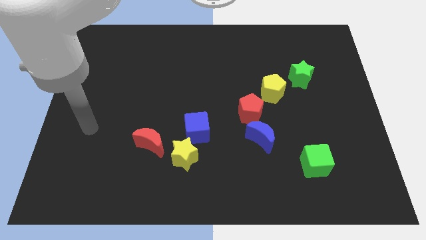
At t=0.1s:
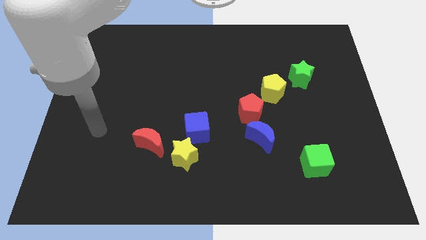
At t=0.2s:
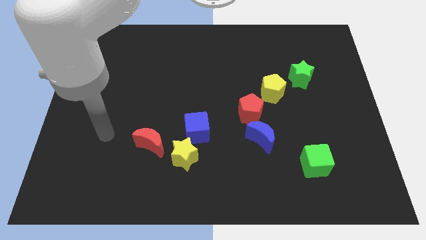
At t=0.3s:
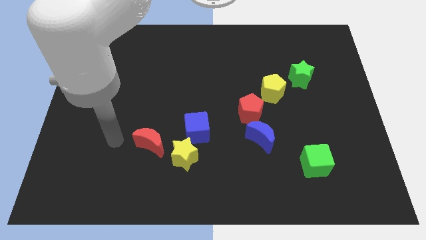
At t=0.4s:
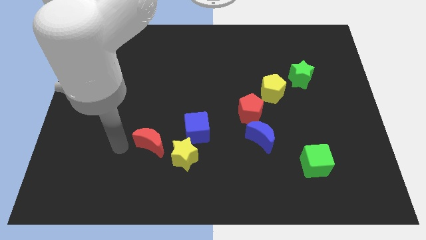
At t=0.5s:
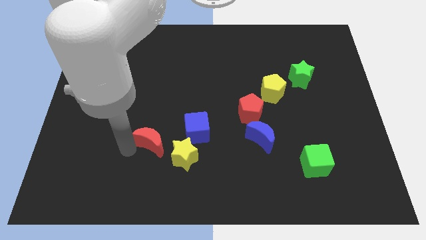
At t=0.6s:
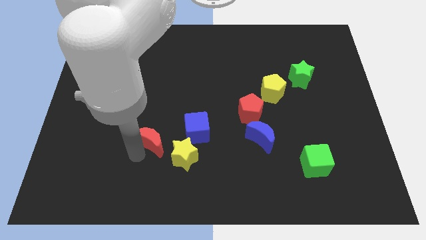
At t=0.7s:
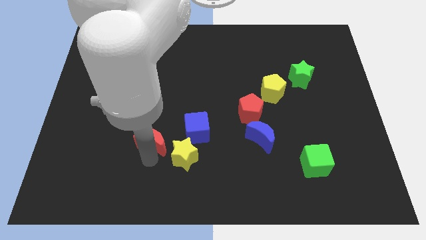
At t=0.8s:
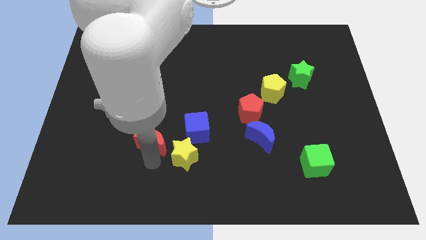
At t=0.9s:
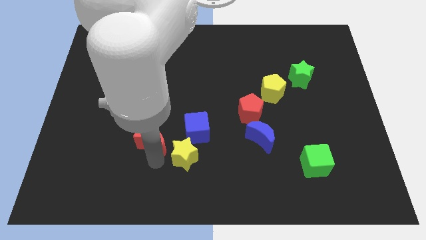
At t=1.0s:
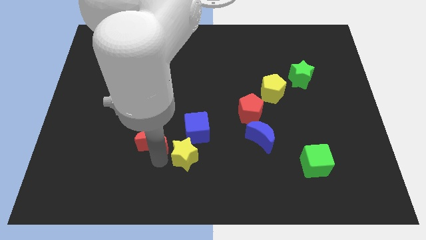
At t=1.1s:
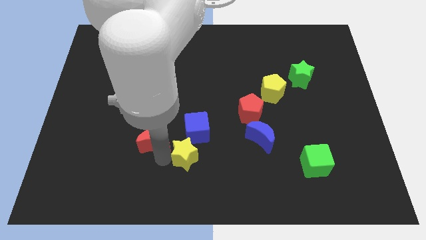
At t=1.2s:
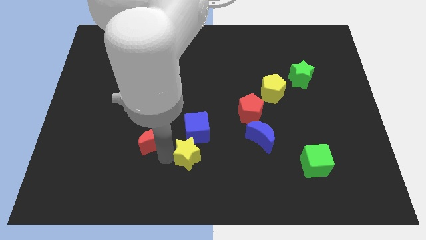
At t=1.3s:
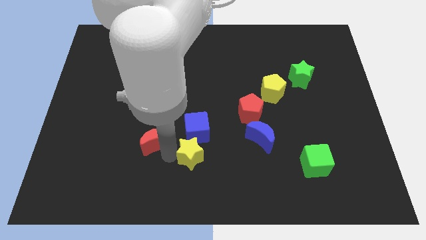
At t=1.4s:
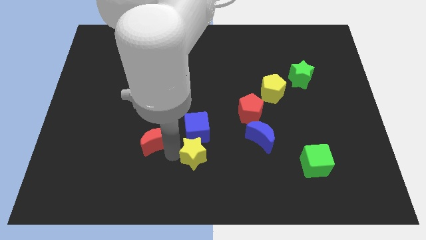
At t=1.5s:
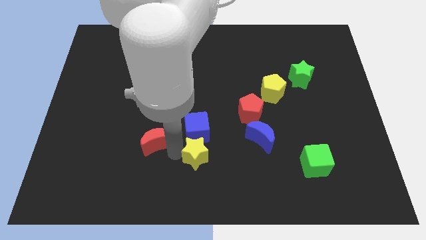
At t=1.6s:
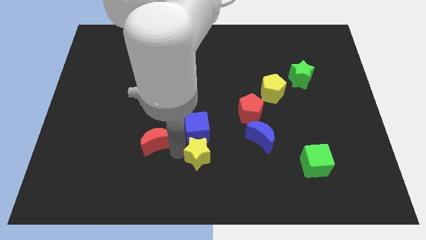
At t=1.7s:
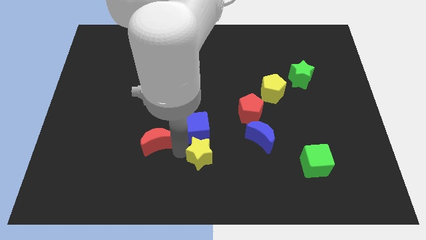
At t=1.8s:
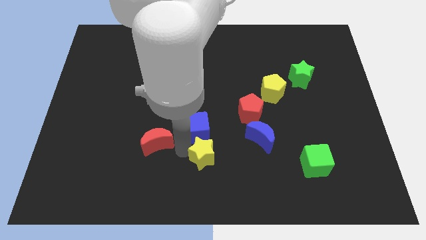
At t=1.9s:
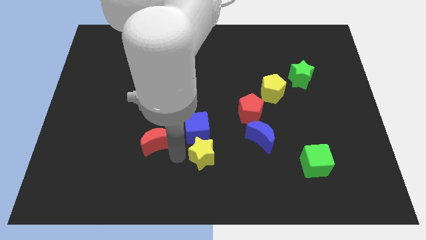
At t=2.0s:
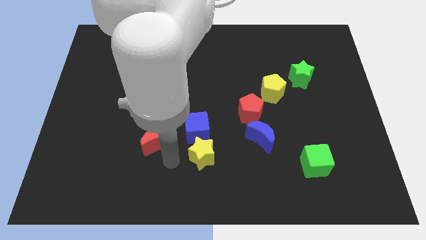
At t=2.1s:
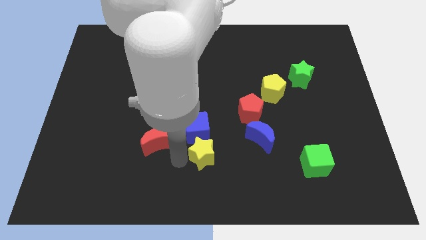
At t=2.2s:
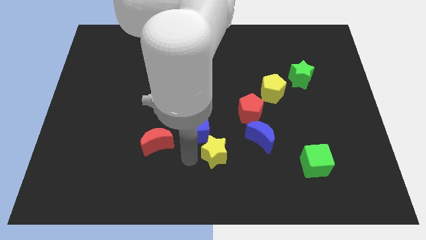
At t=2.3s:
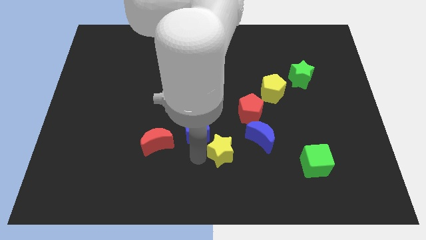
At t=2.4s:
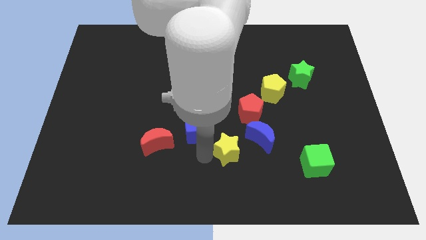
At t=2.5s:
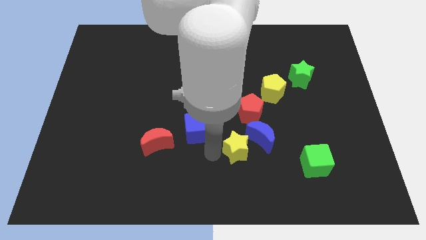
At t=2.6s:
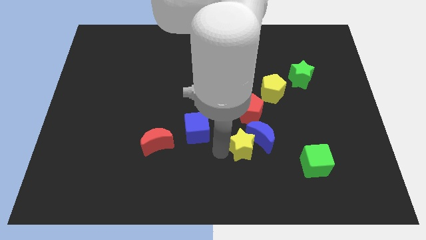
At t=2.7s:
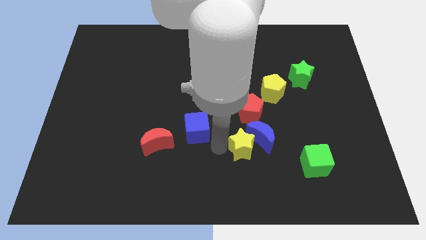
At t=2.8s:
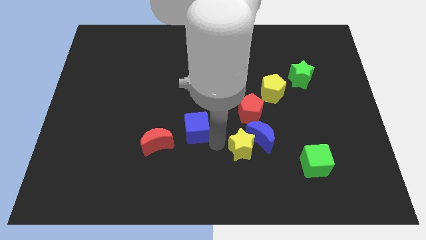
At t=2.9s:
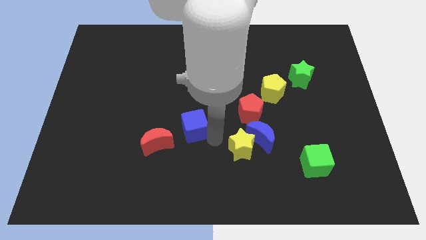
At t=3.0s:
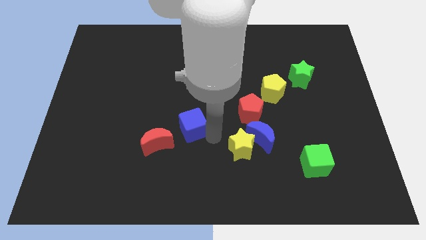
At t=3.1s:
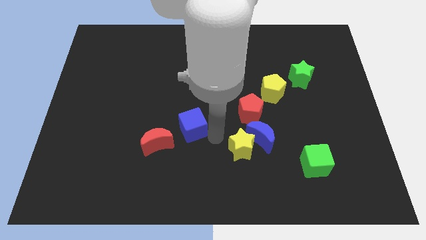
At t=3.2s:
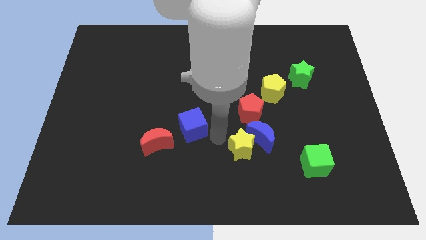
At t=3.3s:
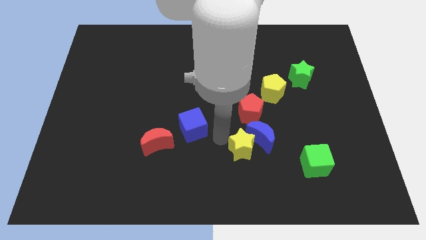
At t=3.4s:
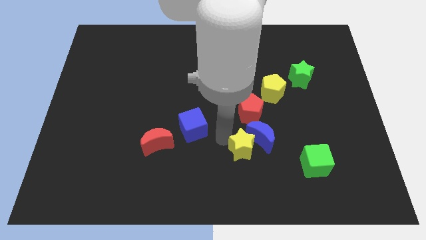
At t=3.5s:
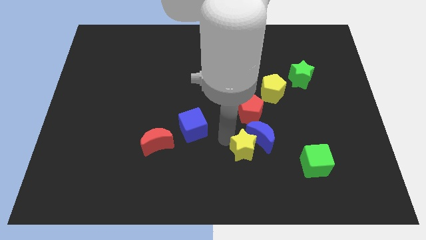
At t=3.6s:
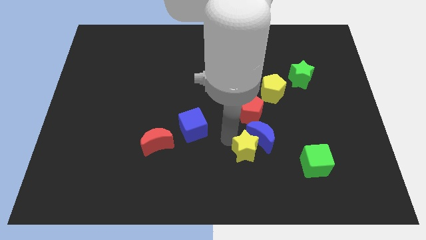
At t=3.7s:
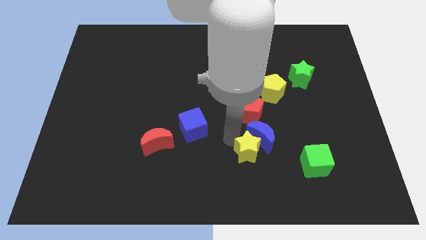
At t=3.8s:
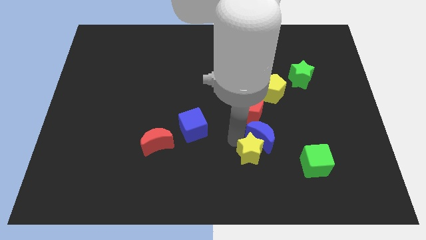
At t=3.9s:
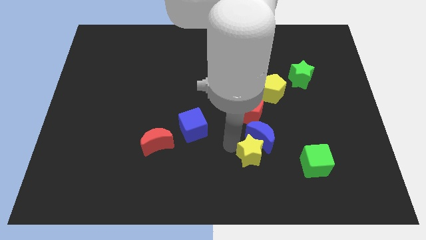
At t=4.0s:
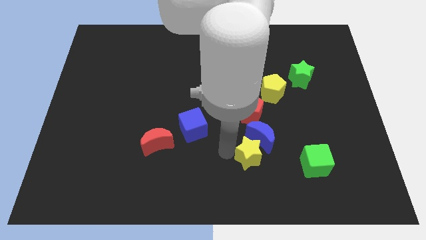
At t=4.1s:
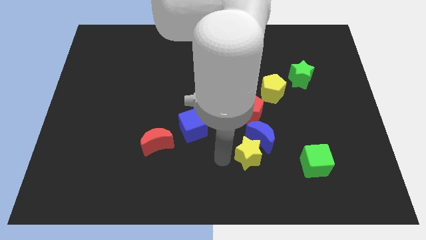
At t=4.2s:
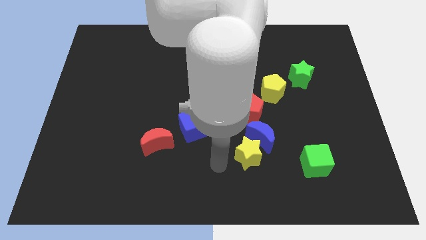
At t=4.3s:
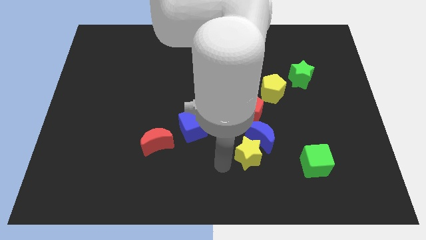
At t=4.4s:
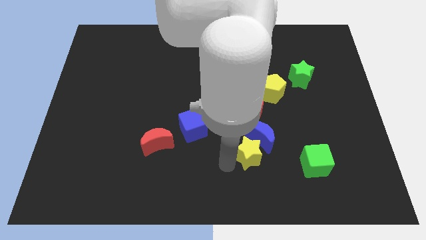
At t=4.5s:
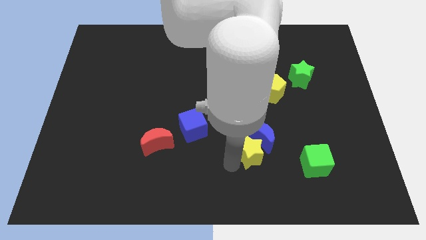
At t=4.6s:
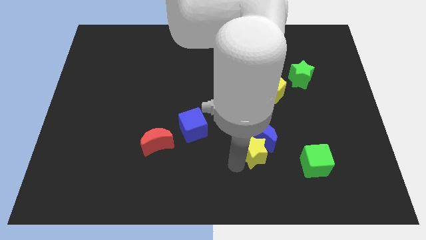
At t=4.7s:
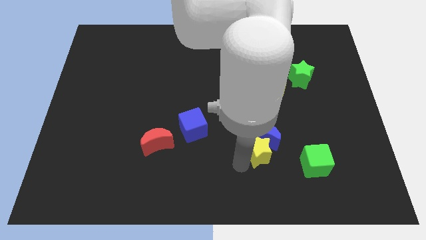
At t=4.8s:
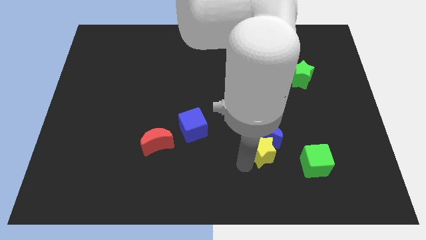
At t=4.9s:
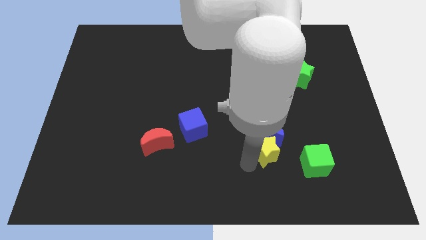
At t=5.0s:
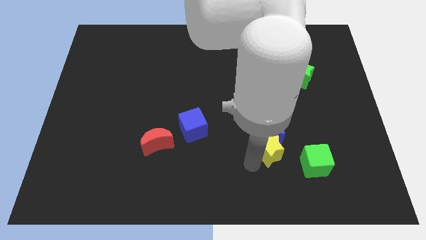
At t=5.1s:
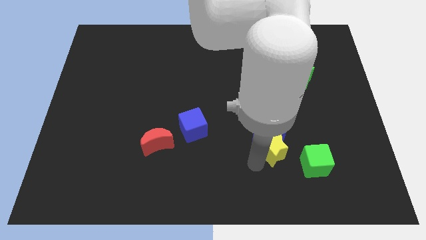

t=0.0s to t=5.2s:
push the yellow star to the top left of the green cube

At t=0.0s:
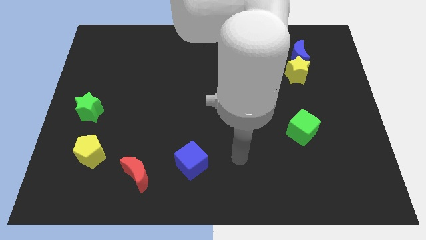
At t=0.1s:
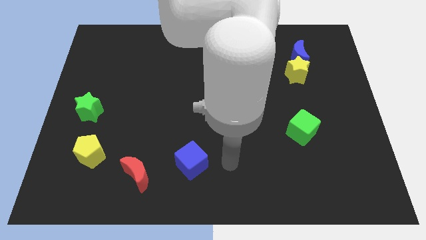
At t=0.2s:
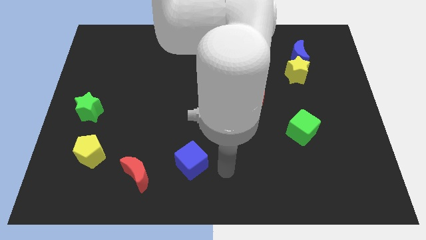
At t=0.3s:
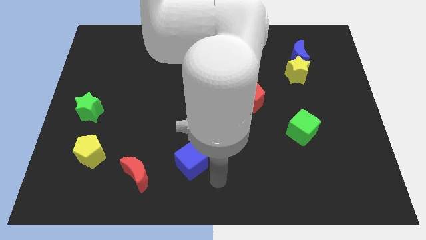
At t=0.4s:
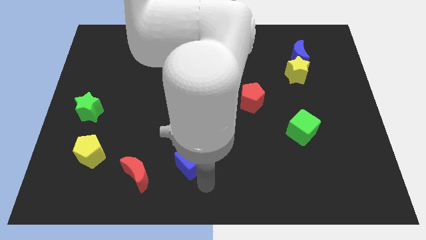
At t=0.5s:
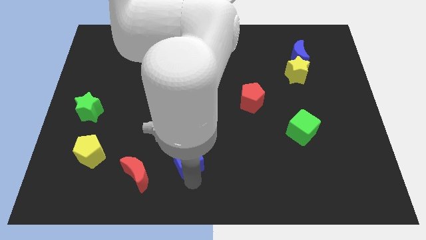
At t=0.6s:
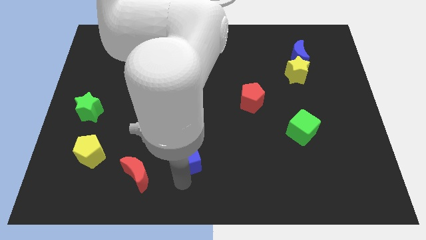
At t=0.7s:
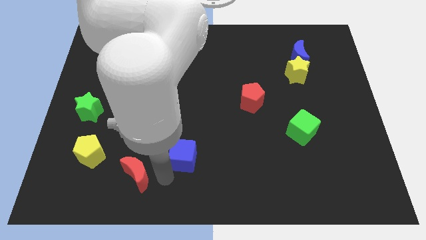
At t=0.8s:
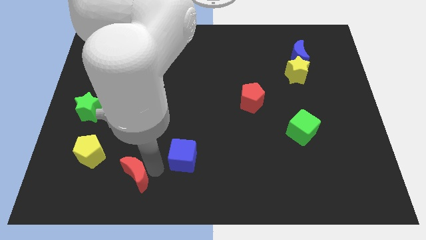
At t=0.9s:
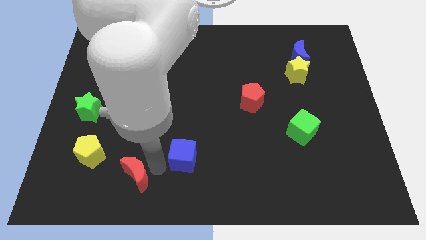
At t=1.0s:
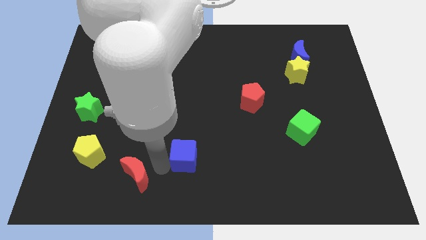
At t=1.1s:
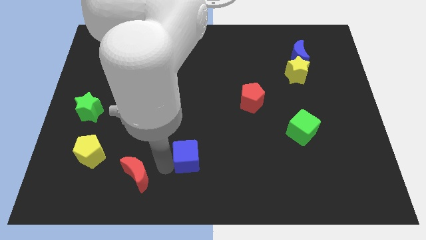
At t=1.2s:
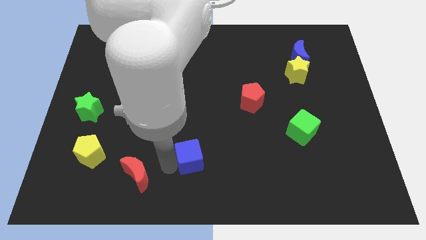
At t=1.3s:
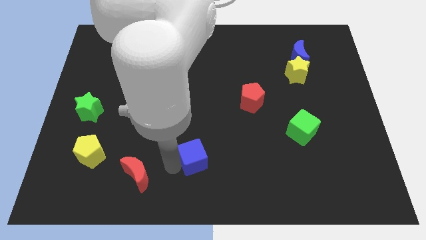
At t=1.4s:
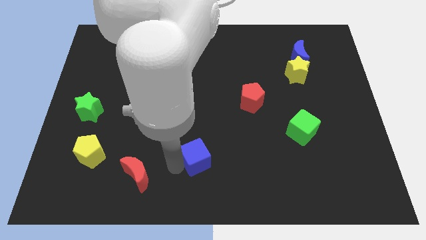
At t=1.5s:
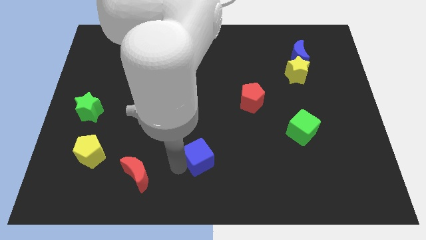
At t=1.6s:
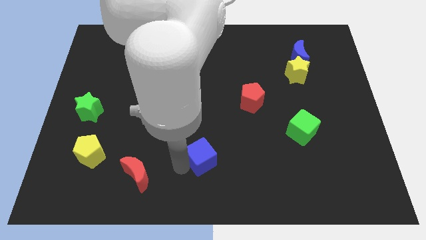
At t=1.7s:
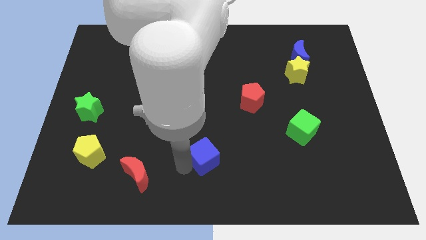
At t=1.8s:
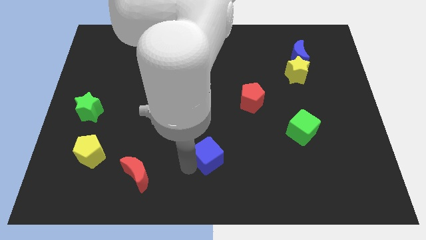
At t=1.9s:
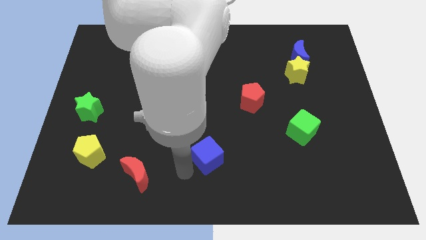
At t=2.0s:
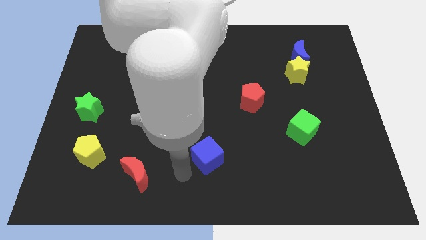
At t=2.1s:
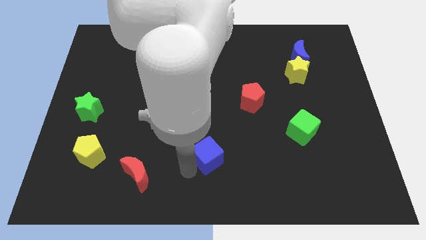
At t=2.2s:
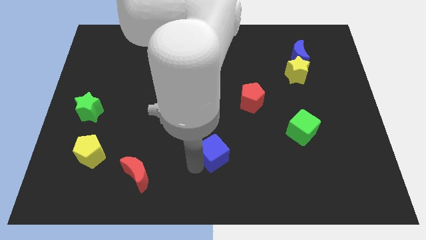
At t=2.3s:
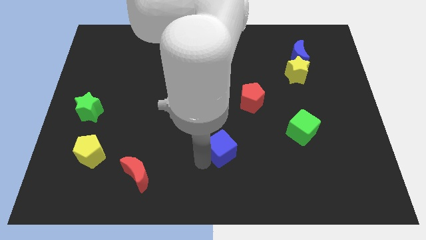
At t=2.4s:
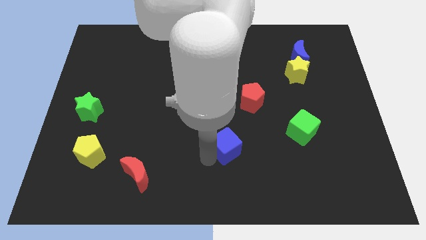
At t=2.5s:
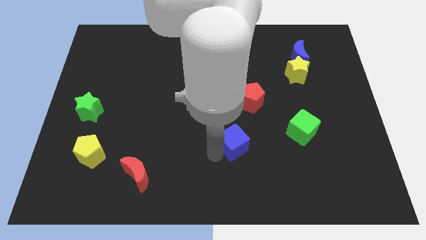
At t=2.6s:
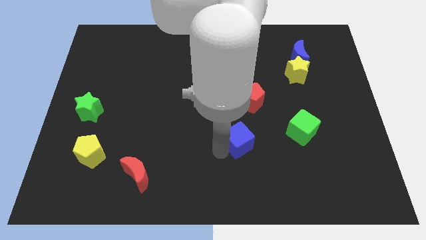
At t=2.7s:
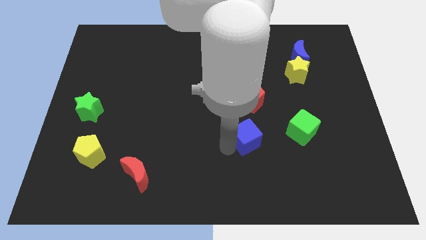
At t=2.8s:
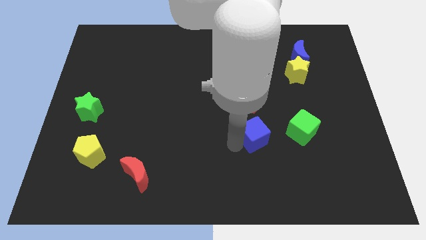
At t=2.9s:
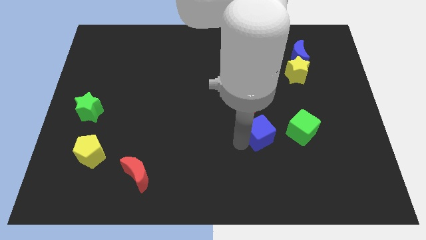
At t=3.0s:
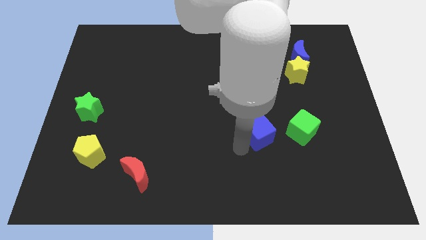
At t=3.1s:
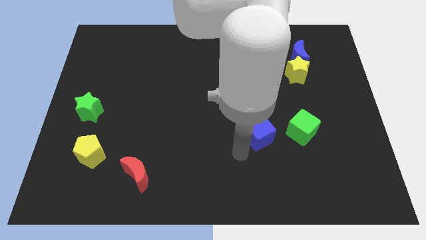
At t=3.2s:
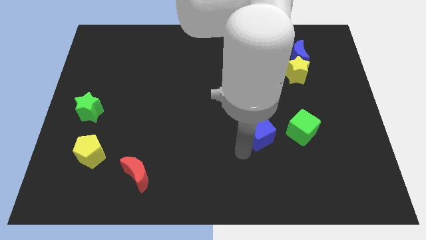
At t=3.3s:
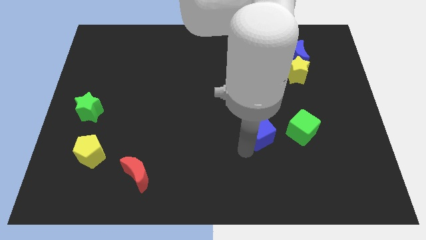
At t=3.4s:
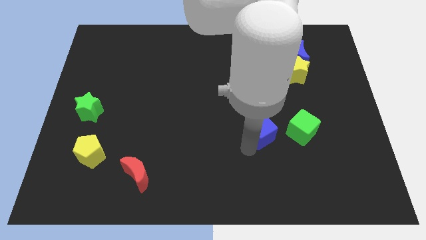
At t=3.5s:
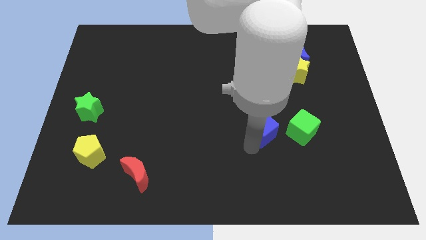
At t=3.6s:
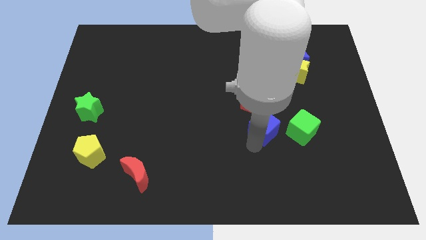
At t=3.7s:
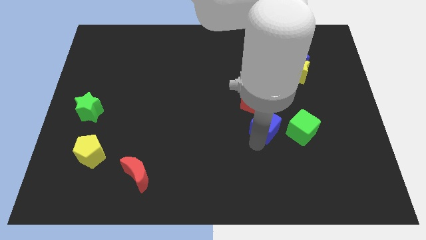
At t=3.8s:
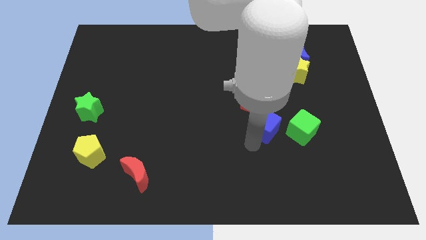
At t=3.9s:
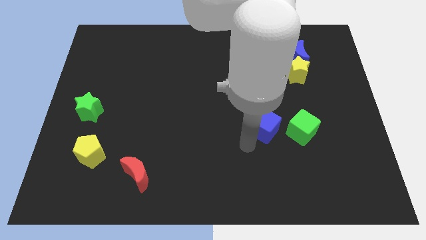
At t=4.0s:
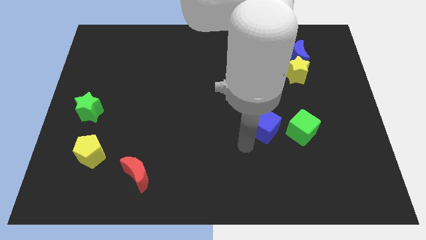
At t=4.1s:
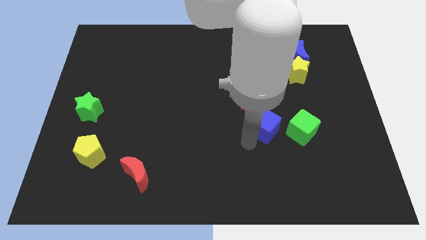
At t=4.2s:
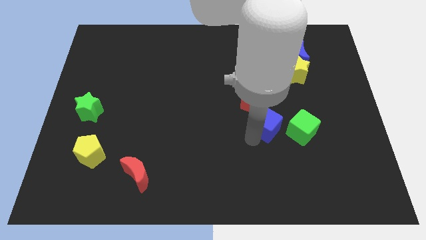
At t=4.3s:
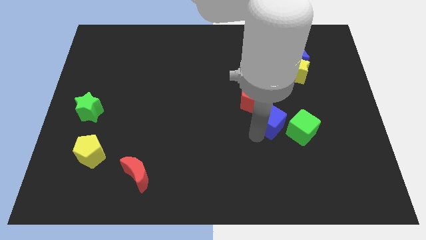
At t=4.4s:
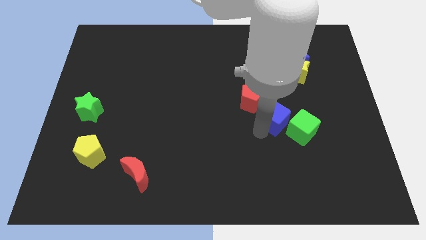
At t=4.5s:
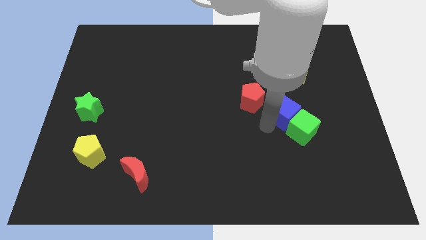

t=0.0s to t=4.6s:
put the blue cube just right of the red pentagon
